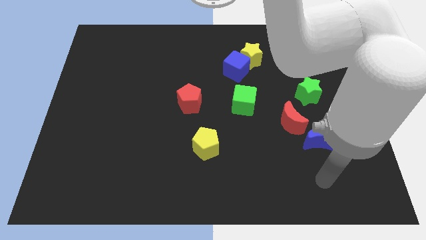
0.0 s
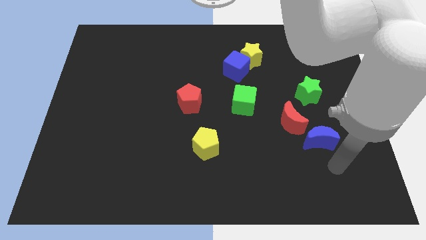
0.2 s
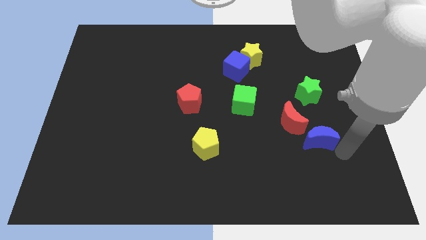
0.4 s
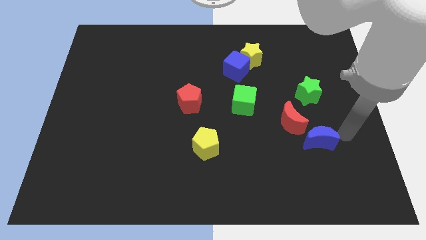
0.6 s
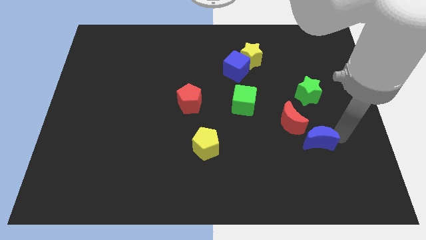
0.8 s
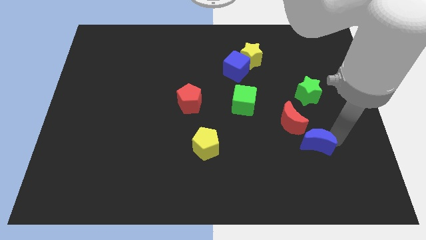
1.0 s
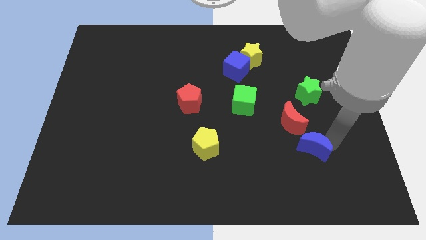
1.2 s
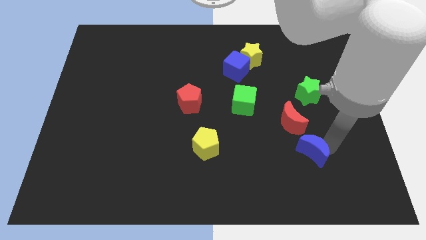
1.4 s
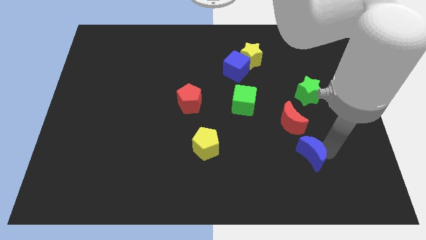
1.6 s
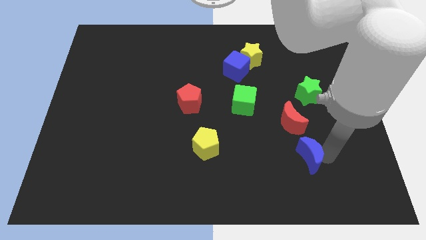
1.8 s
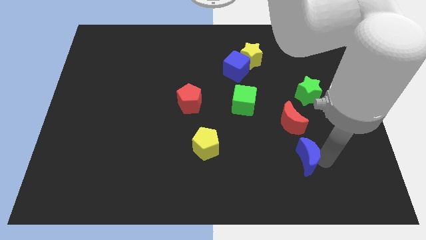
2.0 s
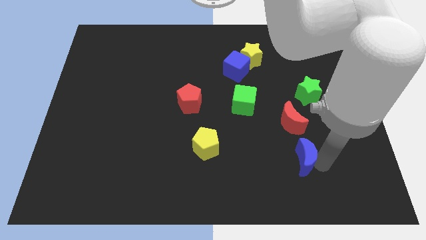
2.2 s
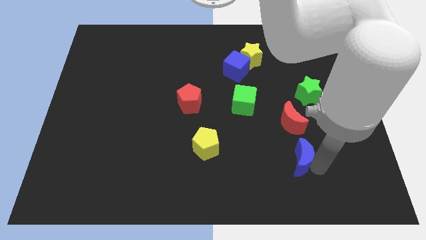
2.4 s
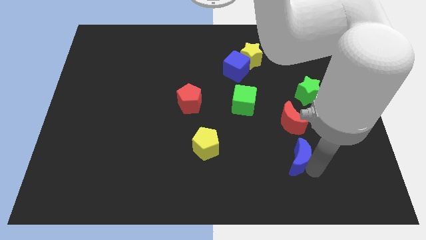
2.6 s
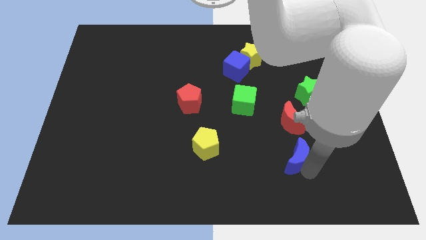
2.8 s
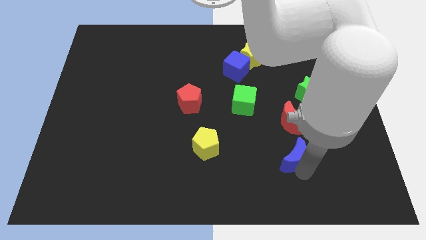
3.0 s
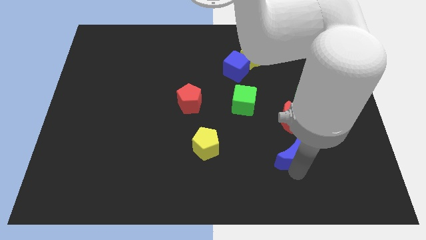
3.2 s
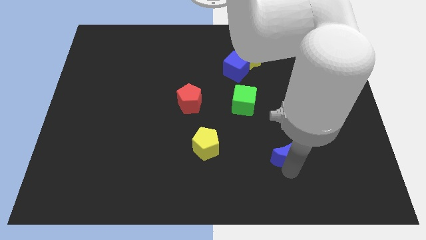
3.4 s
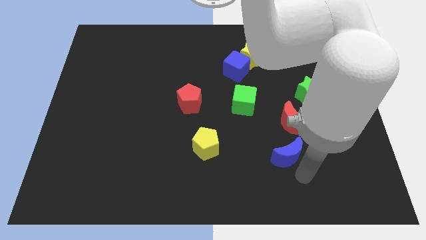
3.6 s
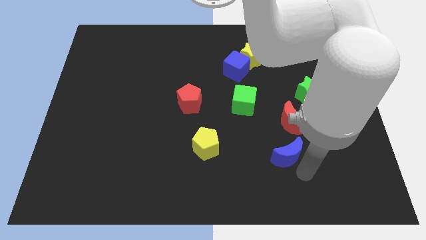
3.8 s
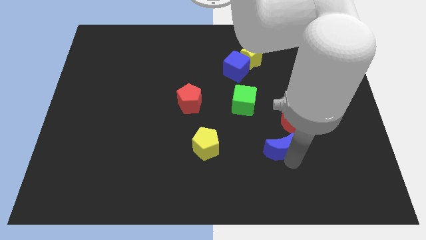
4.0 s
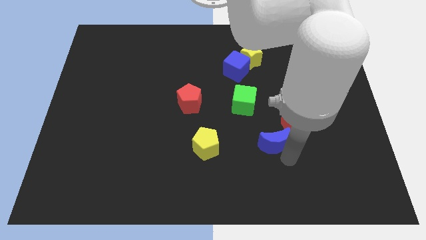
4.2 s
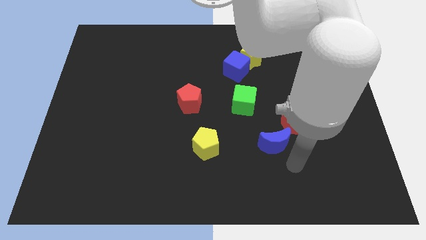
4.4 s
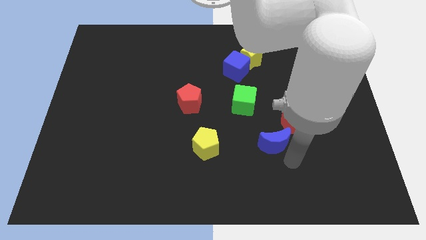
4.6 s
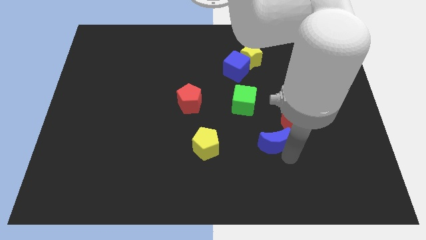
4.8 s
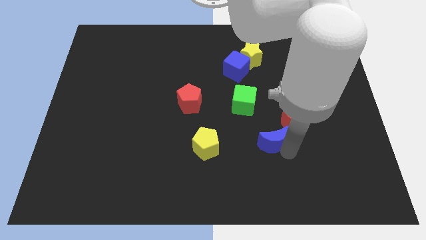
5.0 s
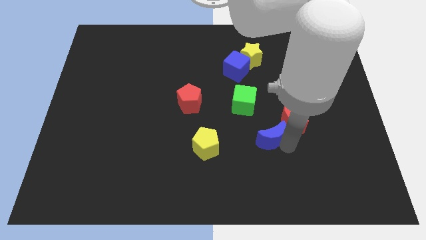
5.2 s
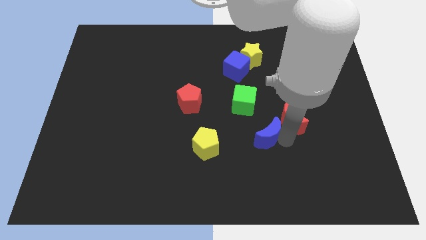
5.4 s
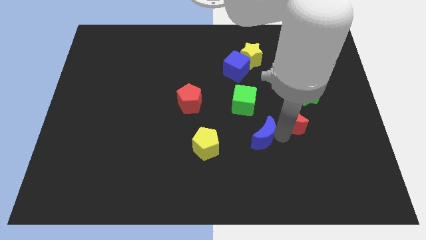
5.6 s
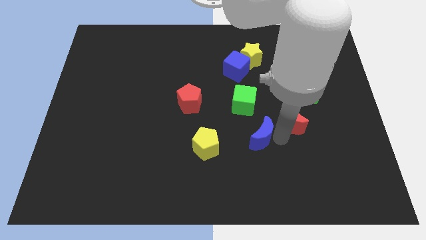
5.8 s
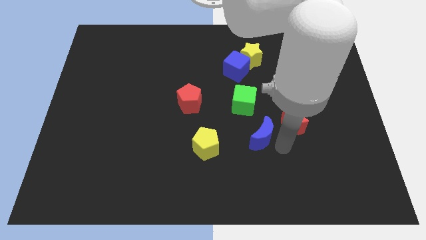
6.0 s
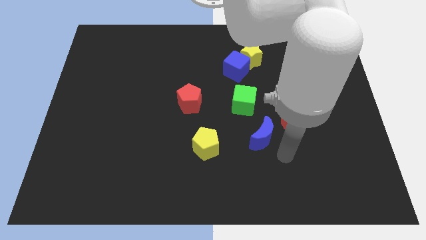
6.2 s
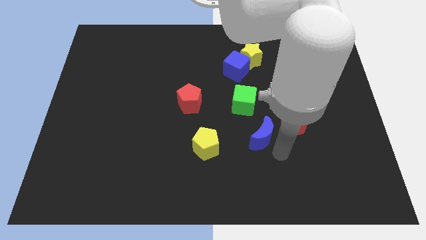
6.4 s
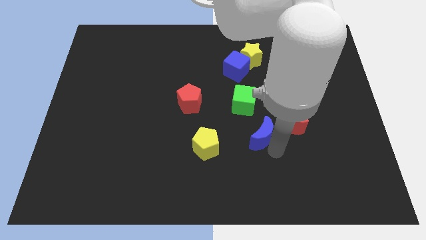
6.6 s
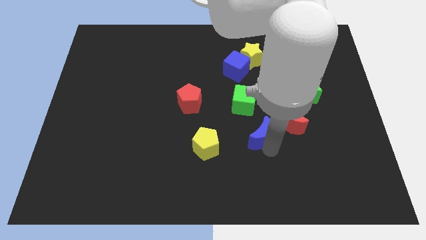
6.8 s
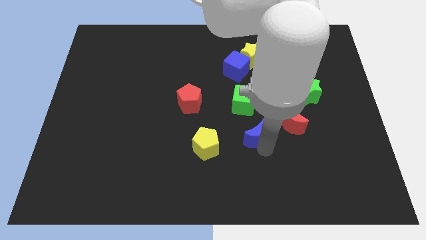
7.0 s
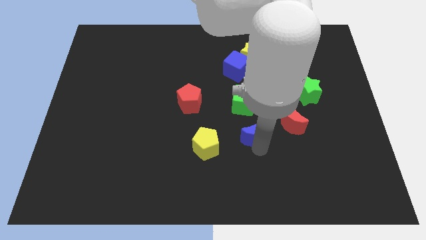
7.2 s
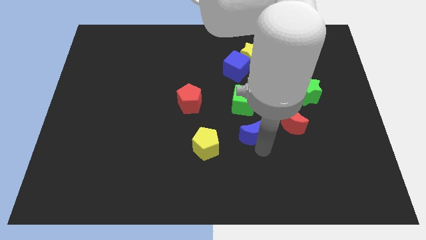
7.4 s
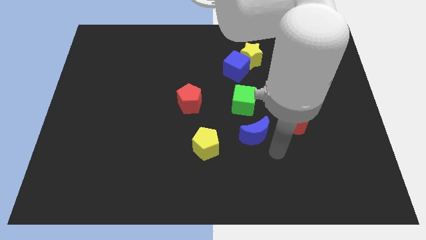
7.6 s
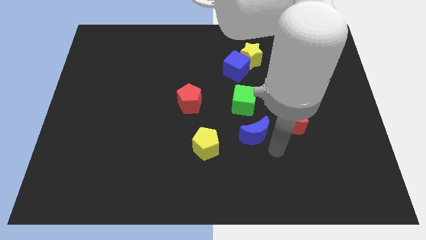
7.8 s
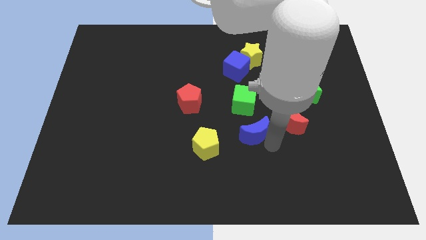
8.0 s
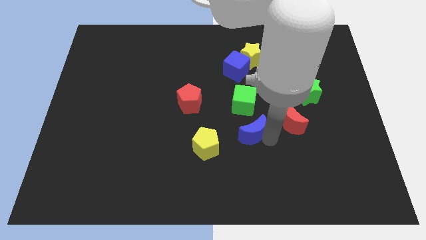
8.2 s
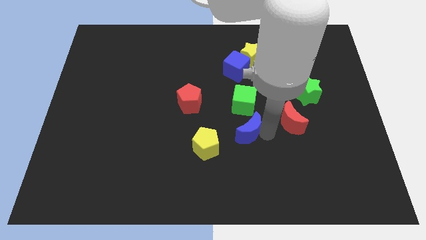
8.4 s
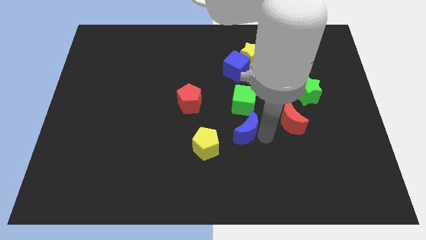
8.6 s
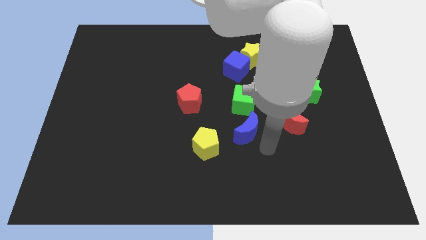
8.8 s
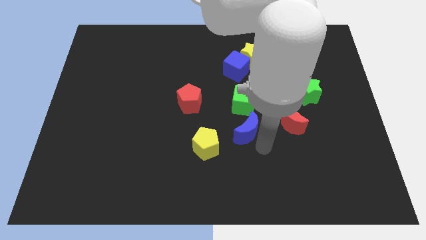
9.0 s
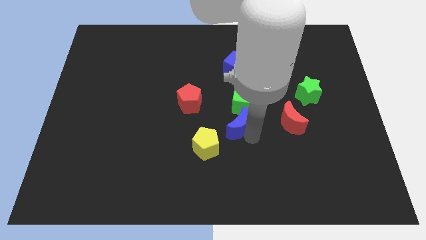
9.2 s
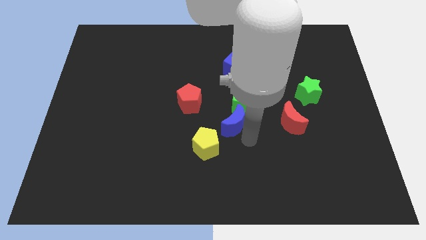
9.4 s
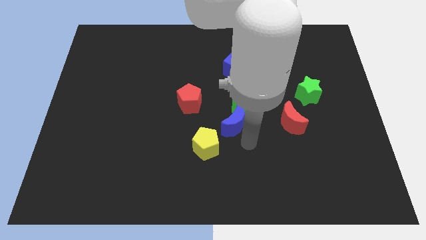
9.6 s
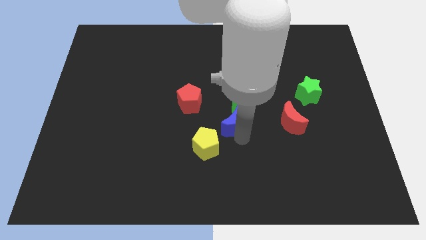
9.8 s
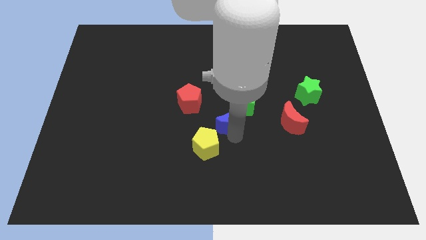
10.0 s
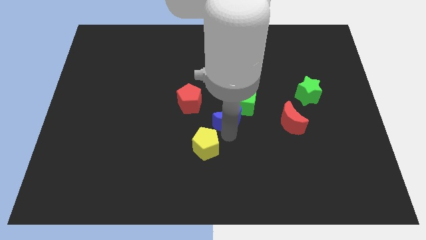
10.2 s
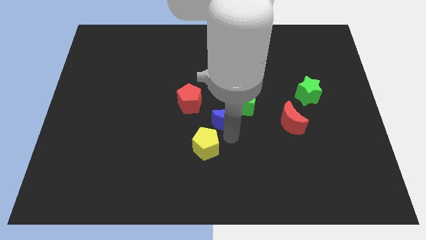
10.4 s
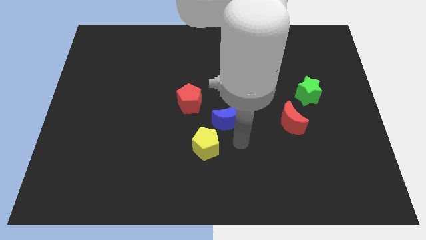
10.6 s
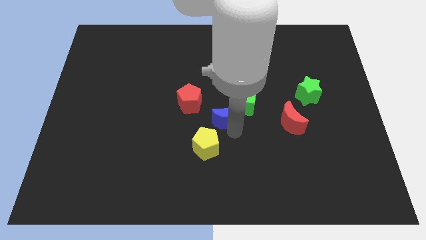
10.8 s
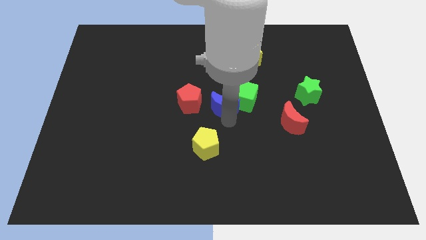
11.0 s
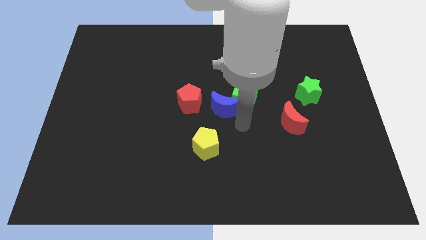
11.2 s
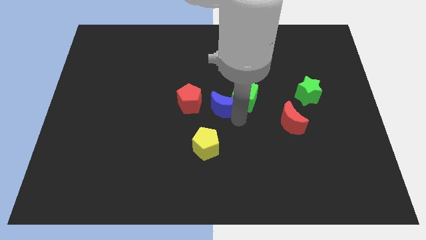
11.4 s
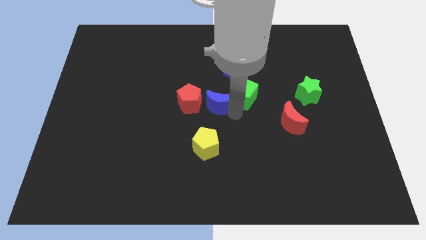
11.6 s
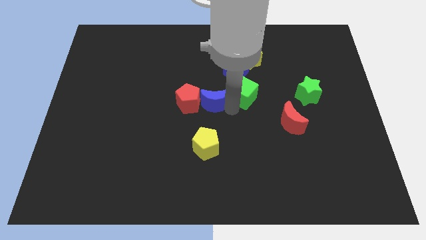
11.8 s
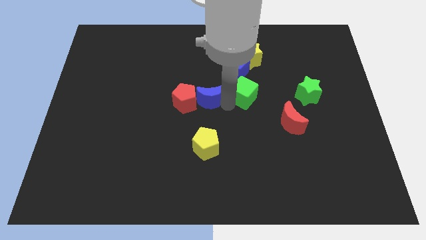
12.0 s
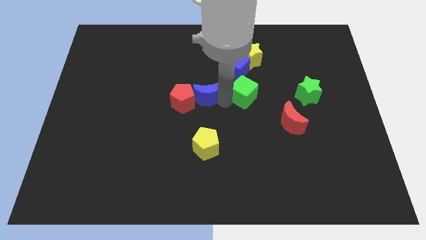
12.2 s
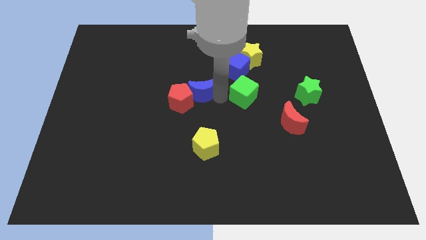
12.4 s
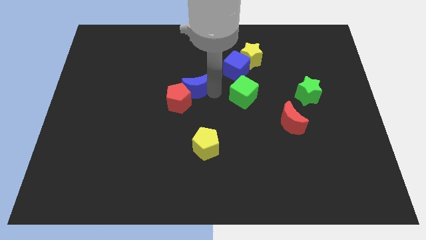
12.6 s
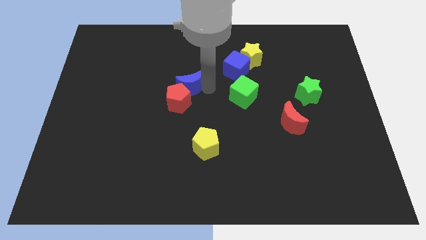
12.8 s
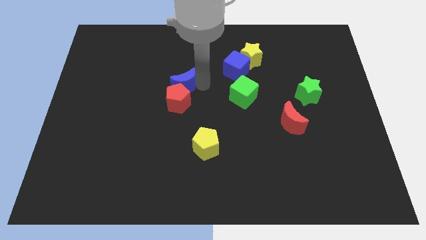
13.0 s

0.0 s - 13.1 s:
move the blue moon diagonally up and to the left of the red pentagon

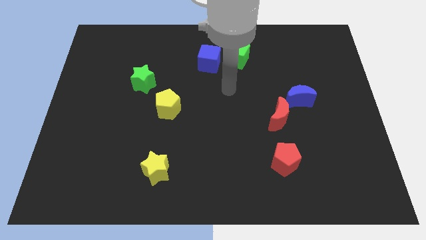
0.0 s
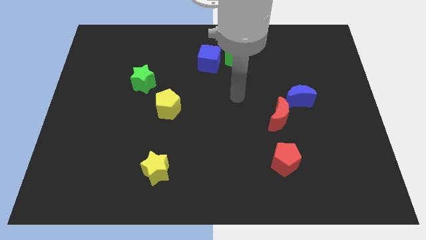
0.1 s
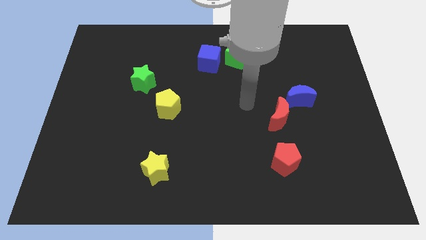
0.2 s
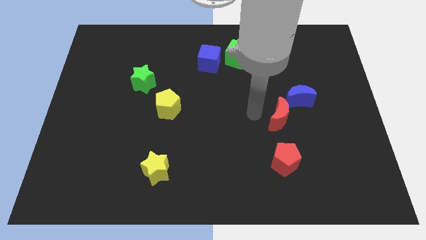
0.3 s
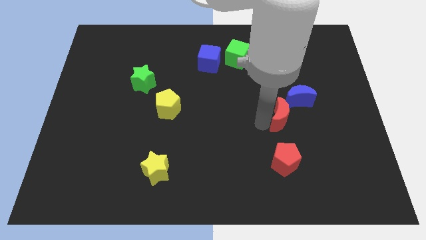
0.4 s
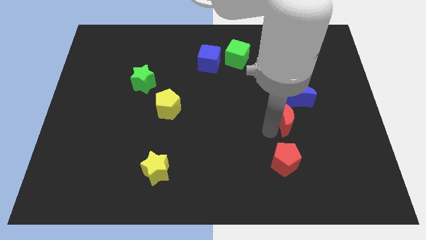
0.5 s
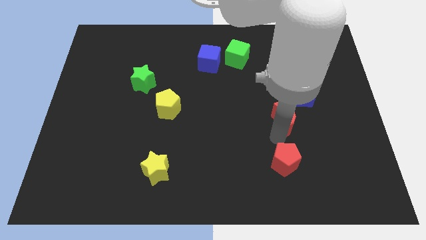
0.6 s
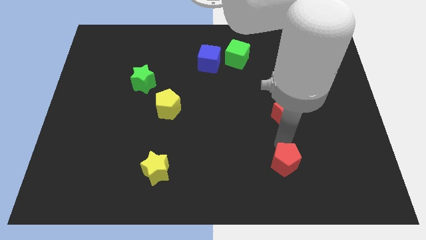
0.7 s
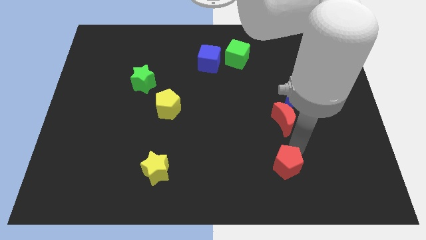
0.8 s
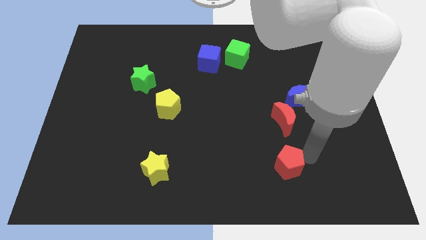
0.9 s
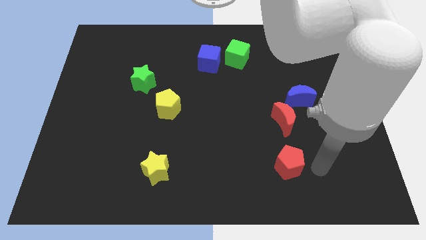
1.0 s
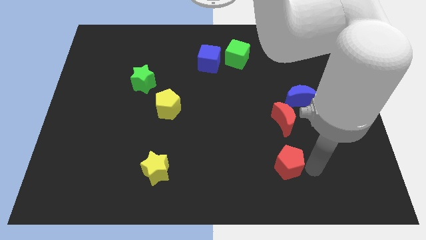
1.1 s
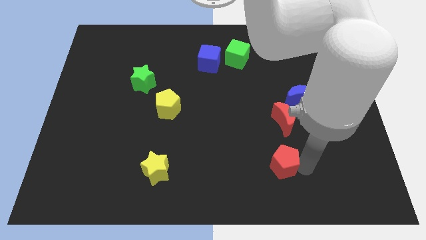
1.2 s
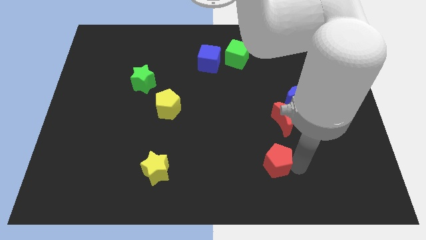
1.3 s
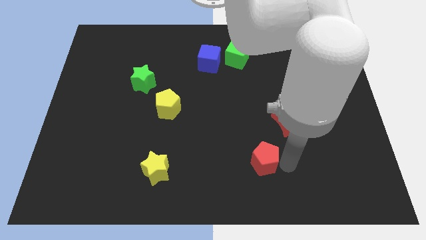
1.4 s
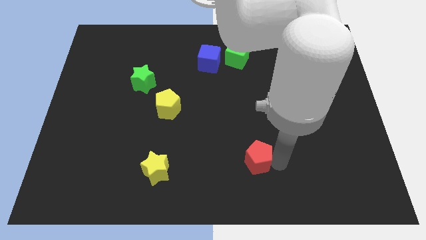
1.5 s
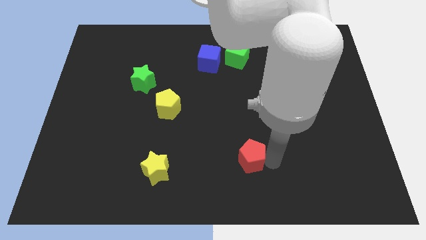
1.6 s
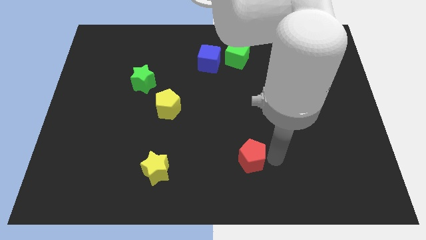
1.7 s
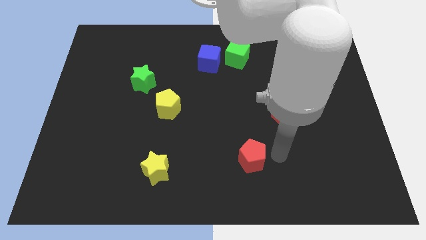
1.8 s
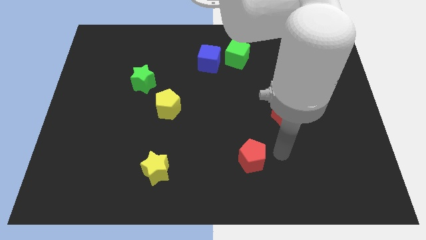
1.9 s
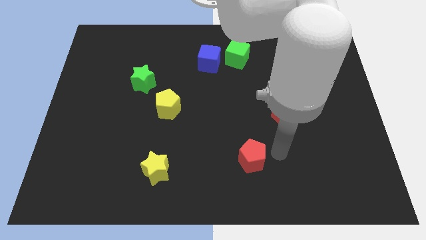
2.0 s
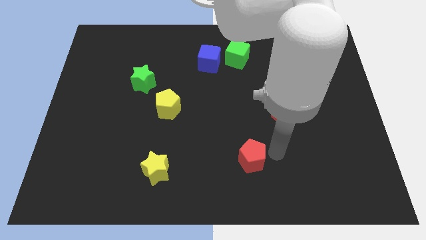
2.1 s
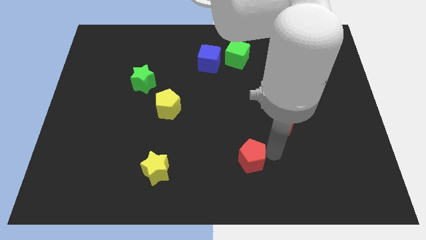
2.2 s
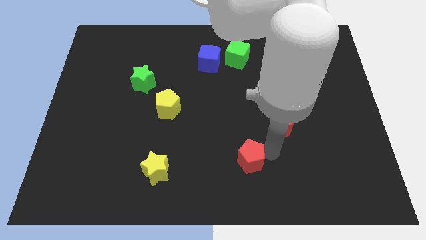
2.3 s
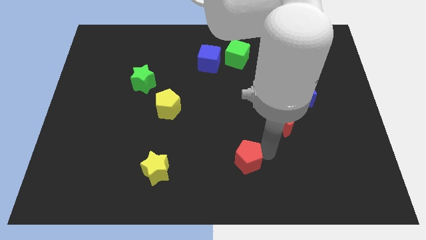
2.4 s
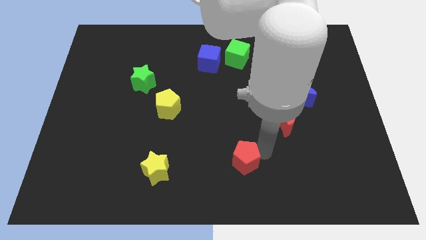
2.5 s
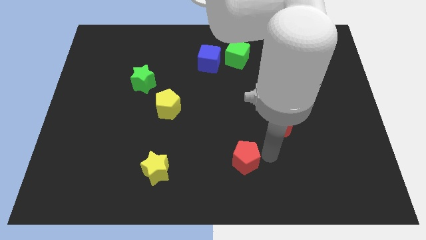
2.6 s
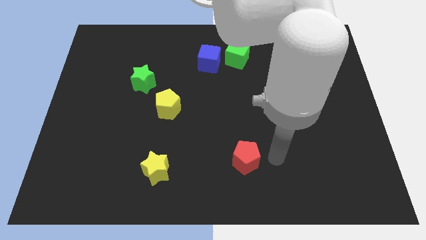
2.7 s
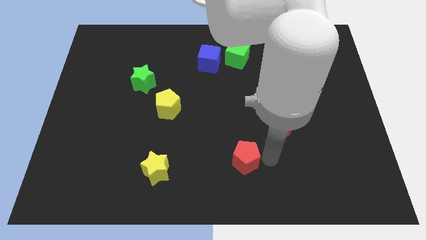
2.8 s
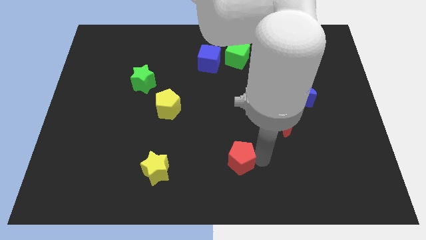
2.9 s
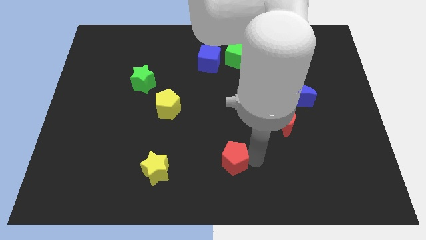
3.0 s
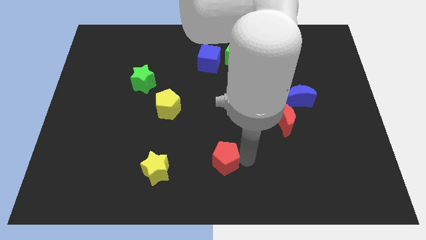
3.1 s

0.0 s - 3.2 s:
put the red pentagon to the right of the yellow star
